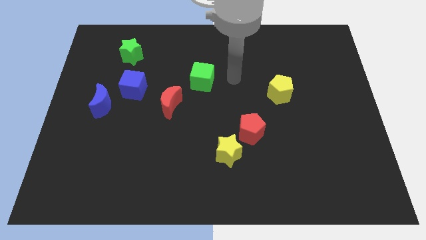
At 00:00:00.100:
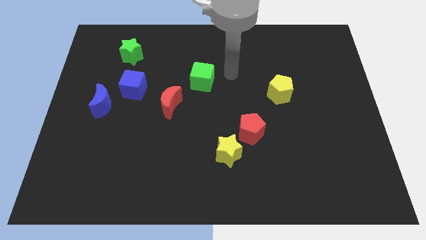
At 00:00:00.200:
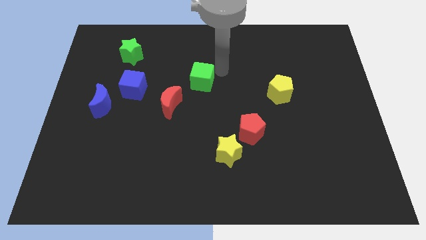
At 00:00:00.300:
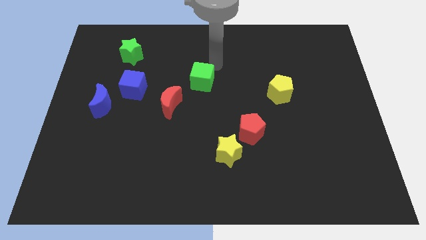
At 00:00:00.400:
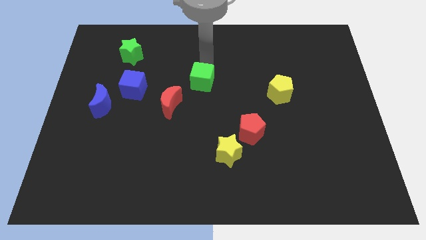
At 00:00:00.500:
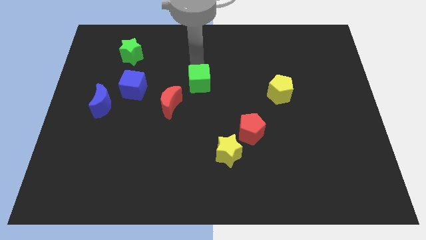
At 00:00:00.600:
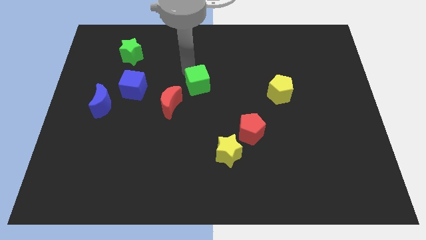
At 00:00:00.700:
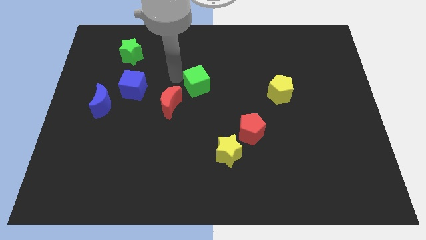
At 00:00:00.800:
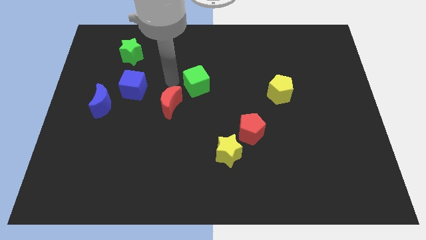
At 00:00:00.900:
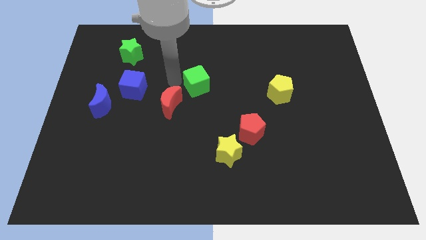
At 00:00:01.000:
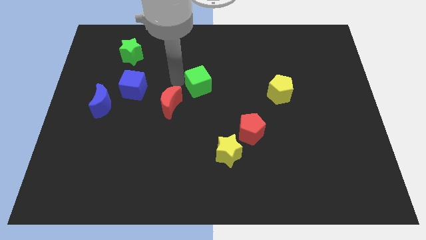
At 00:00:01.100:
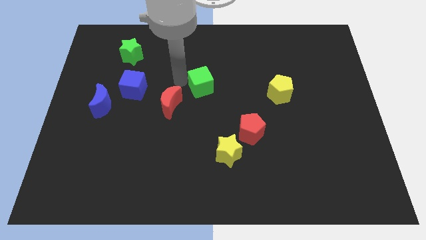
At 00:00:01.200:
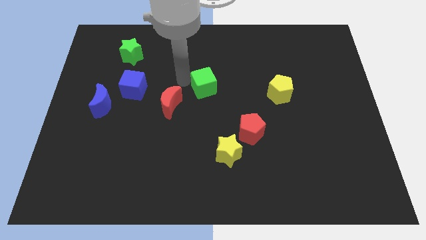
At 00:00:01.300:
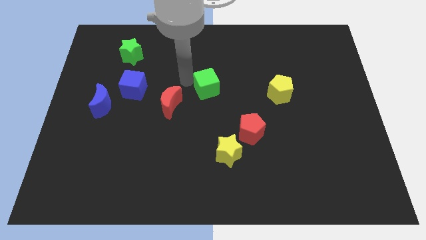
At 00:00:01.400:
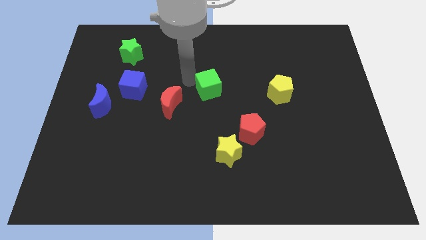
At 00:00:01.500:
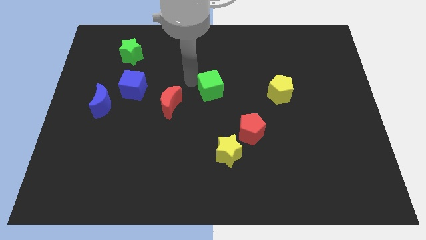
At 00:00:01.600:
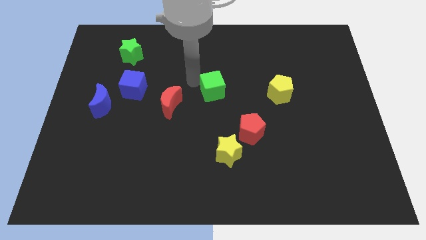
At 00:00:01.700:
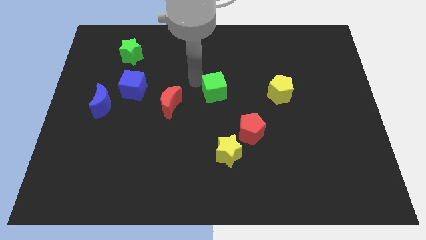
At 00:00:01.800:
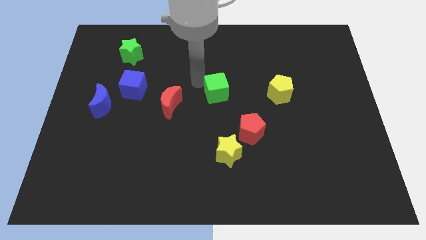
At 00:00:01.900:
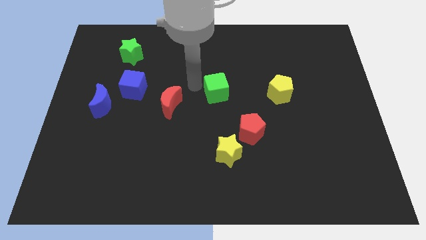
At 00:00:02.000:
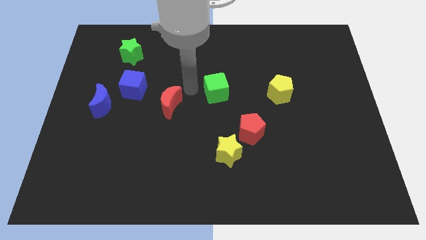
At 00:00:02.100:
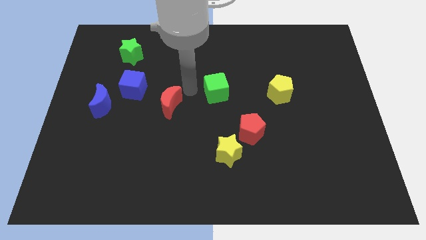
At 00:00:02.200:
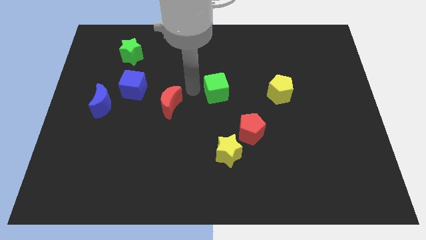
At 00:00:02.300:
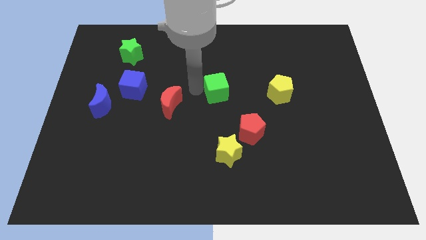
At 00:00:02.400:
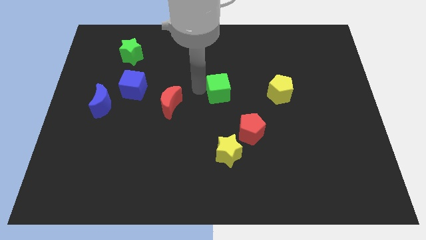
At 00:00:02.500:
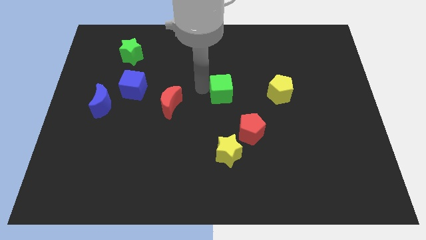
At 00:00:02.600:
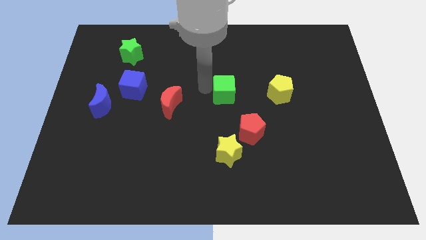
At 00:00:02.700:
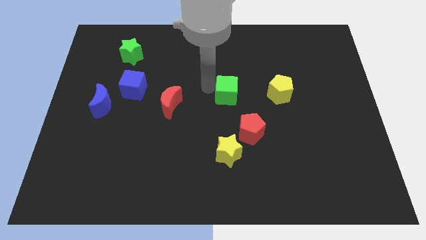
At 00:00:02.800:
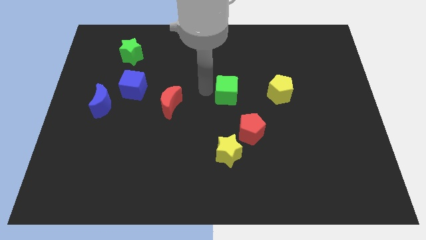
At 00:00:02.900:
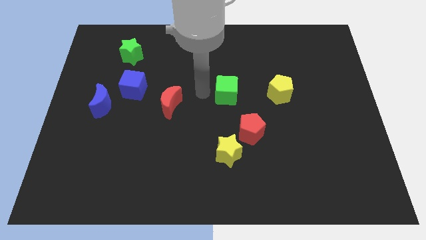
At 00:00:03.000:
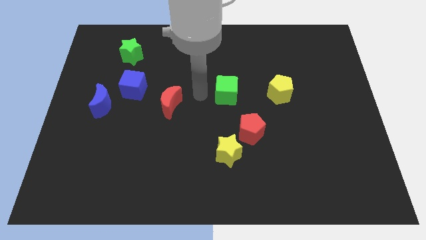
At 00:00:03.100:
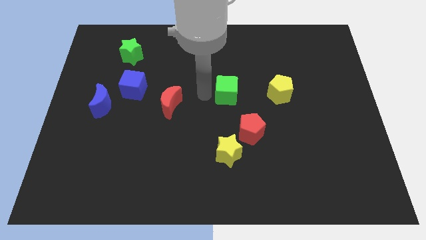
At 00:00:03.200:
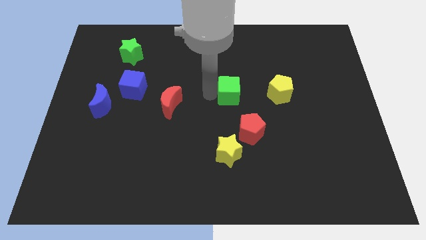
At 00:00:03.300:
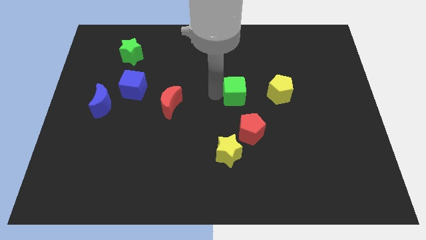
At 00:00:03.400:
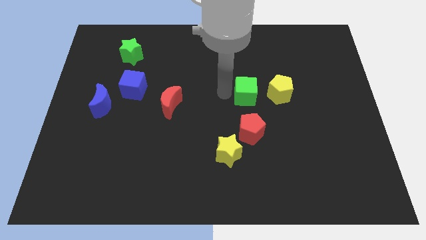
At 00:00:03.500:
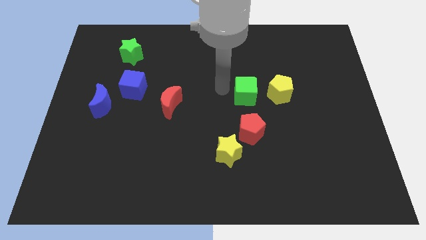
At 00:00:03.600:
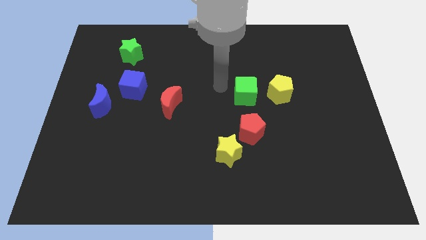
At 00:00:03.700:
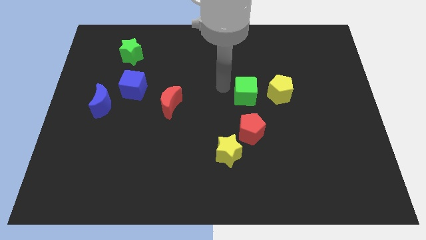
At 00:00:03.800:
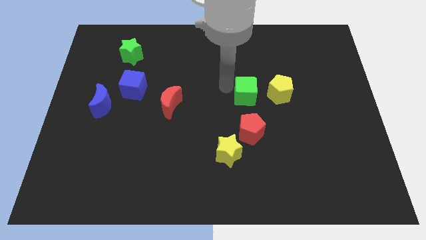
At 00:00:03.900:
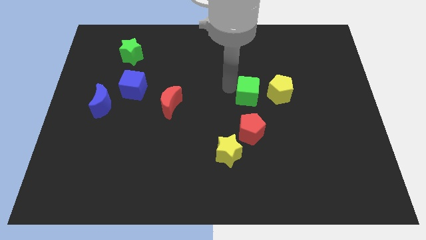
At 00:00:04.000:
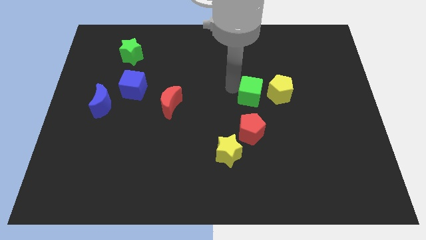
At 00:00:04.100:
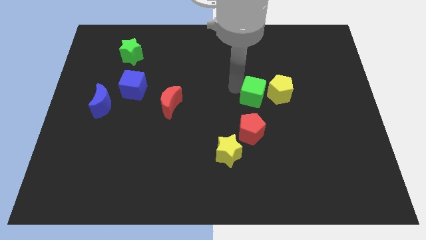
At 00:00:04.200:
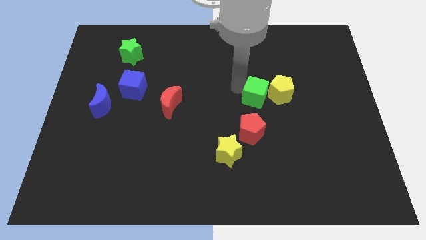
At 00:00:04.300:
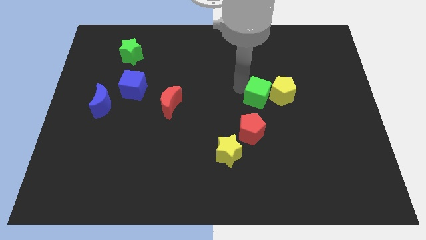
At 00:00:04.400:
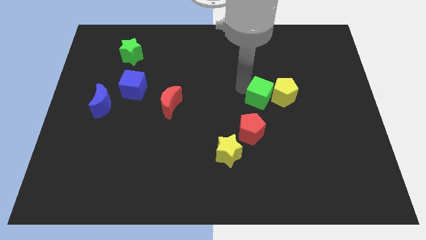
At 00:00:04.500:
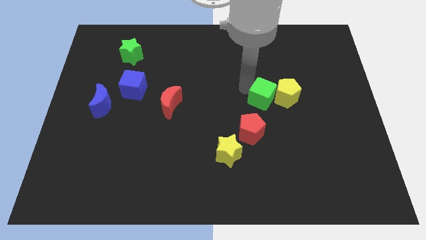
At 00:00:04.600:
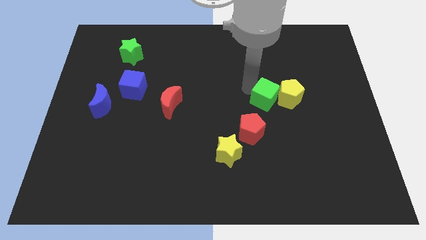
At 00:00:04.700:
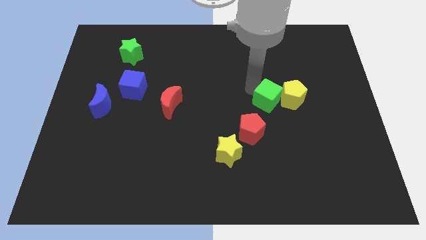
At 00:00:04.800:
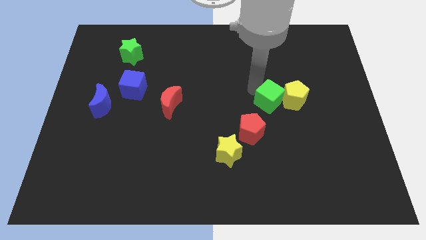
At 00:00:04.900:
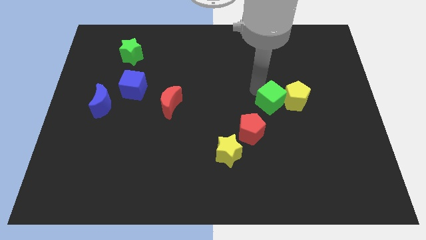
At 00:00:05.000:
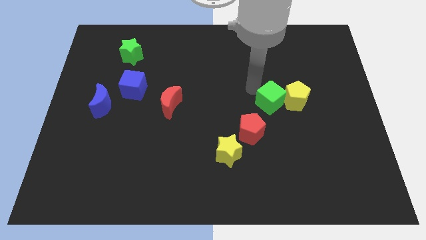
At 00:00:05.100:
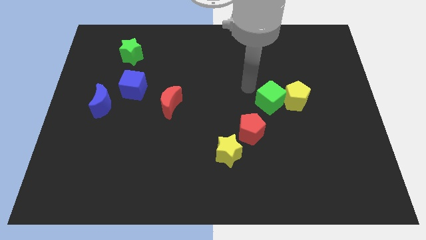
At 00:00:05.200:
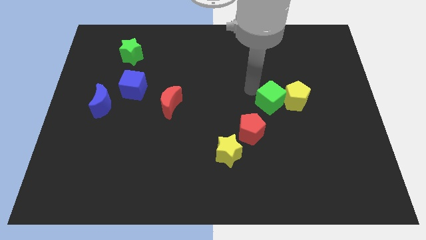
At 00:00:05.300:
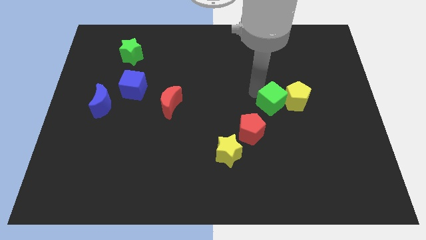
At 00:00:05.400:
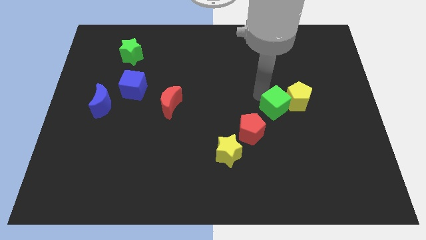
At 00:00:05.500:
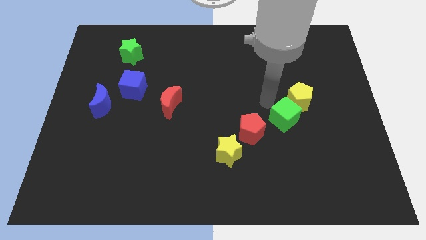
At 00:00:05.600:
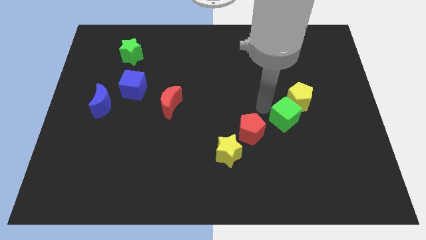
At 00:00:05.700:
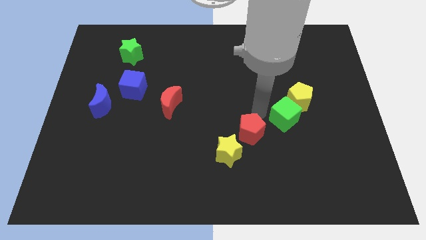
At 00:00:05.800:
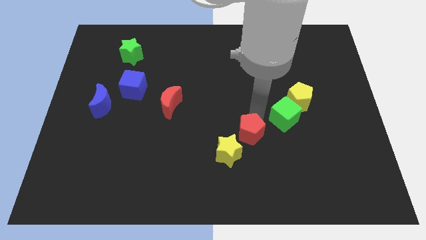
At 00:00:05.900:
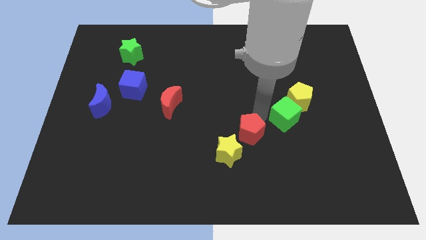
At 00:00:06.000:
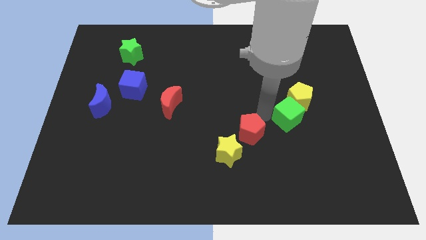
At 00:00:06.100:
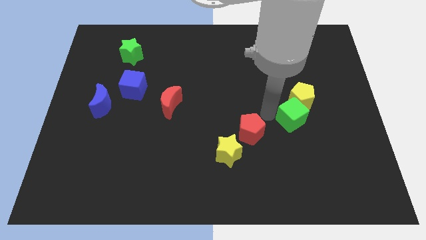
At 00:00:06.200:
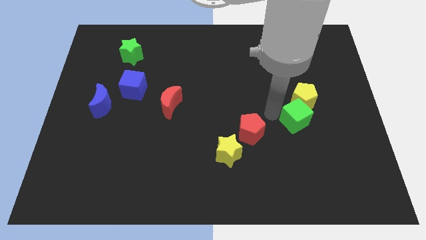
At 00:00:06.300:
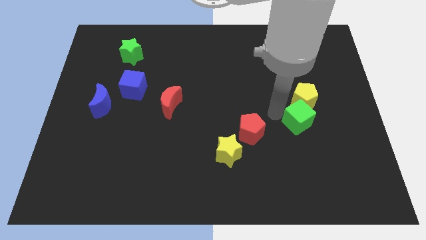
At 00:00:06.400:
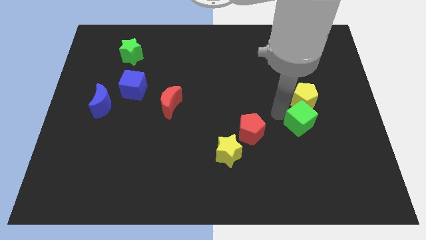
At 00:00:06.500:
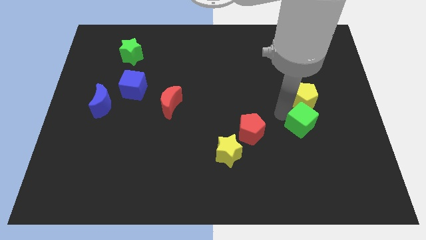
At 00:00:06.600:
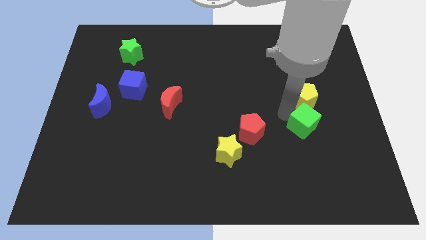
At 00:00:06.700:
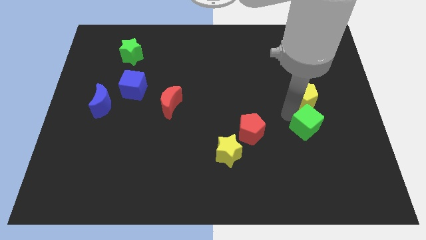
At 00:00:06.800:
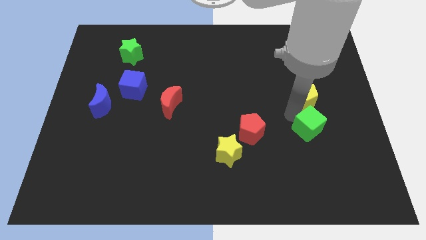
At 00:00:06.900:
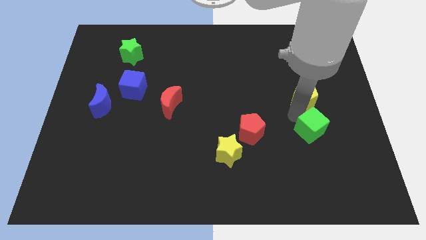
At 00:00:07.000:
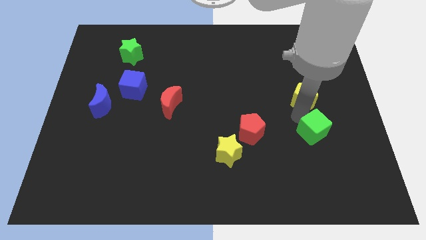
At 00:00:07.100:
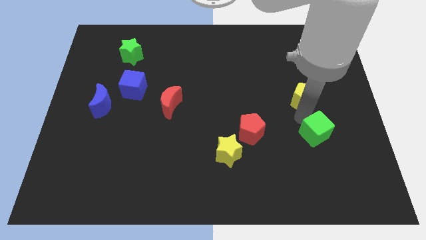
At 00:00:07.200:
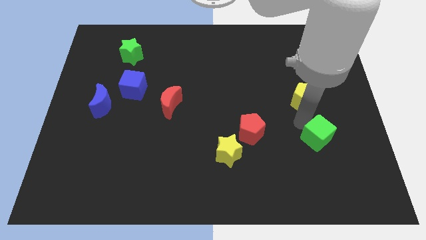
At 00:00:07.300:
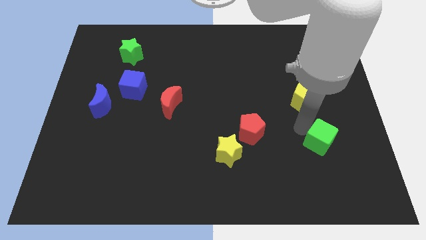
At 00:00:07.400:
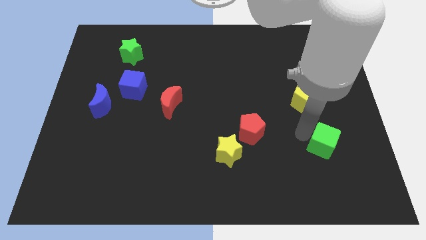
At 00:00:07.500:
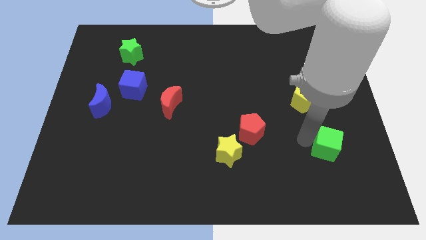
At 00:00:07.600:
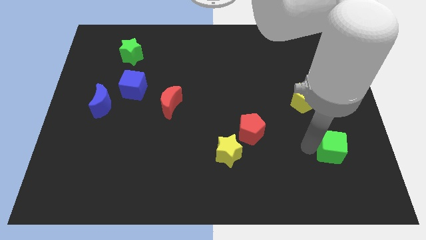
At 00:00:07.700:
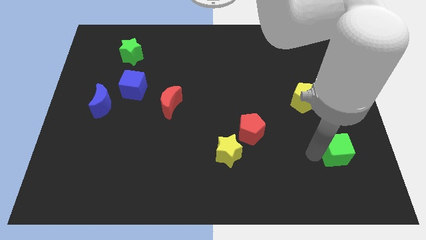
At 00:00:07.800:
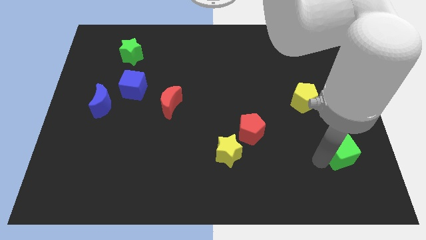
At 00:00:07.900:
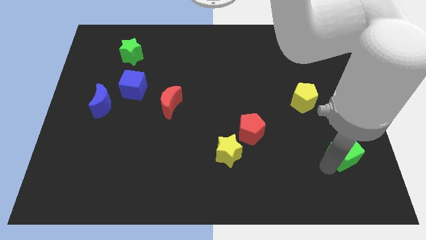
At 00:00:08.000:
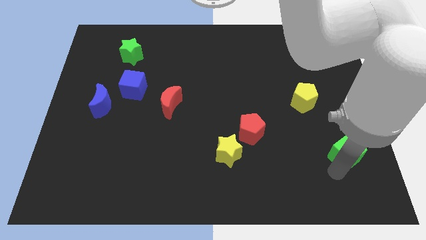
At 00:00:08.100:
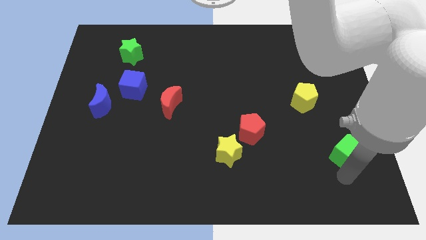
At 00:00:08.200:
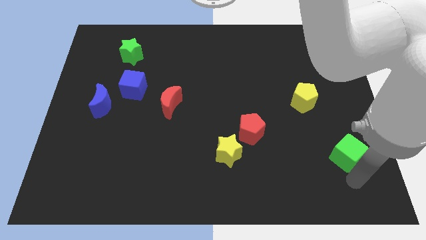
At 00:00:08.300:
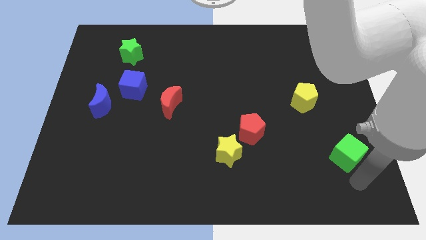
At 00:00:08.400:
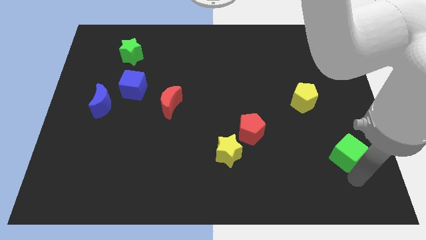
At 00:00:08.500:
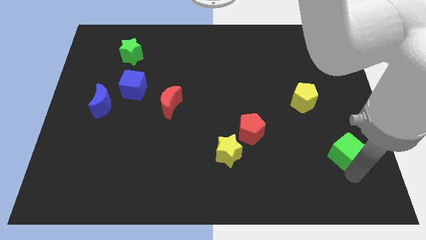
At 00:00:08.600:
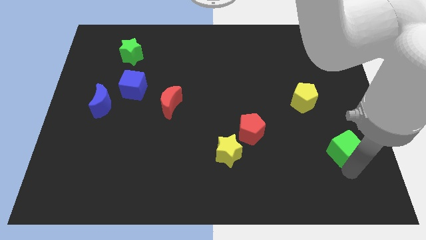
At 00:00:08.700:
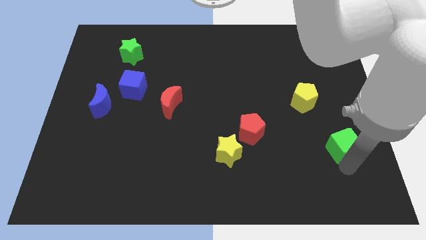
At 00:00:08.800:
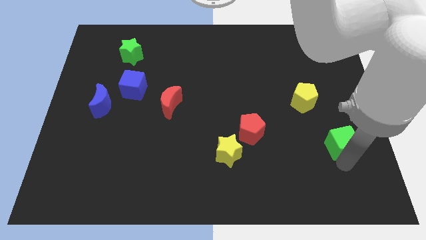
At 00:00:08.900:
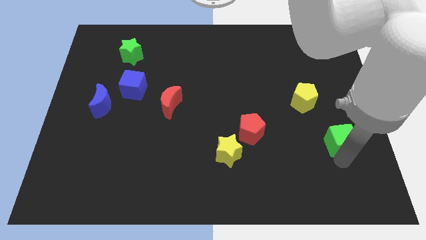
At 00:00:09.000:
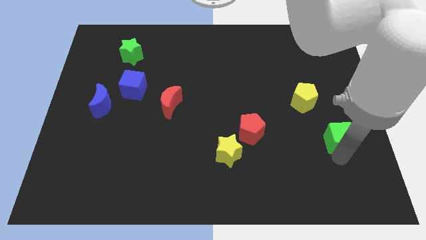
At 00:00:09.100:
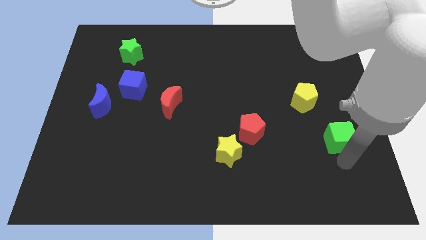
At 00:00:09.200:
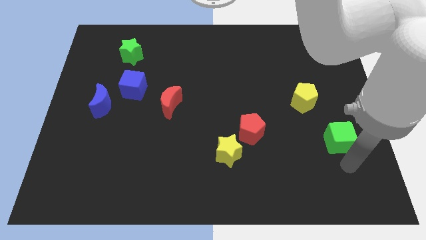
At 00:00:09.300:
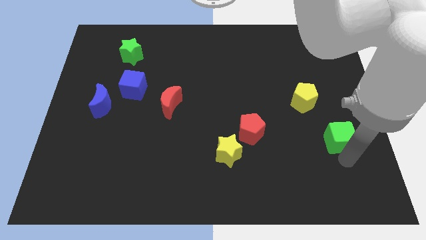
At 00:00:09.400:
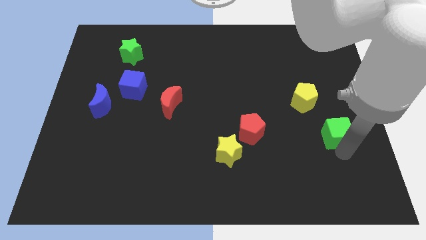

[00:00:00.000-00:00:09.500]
move the green cube to the bottom right of the yellow pentagon
